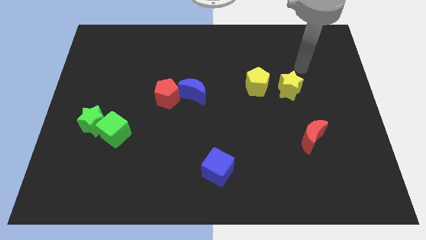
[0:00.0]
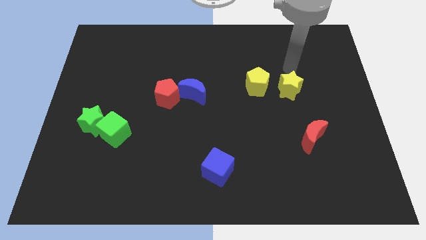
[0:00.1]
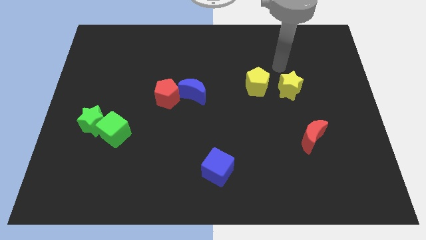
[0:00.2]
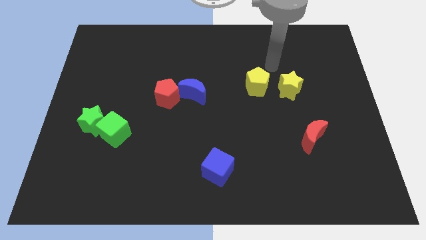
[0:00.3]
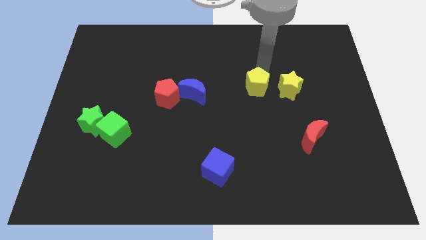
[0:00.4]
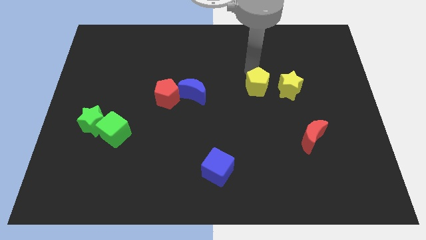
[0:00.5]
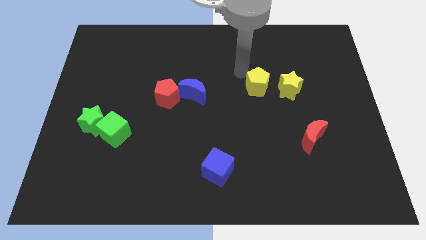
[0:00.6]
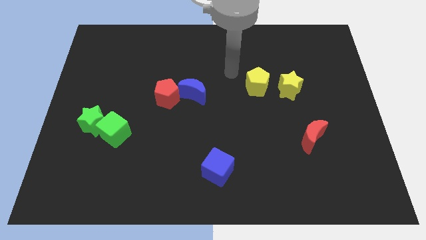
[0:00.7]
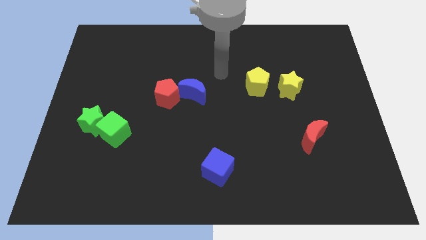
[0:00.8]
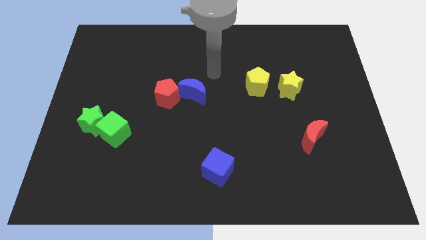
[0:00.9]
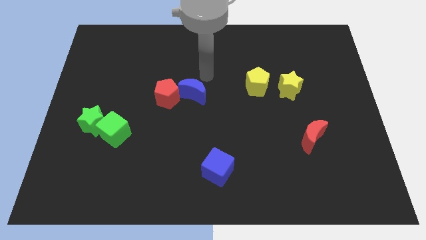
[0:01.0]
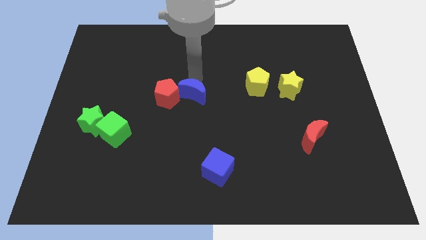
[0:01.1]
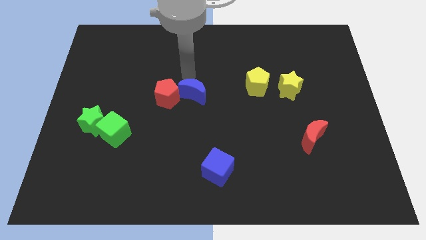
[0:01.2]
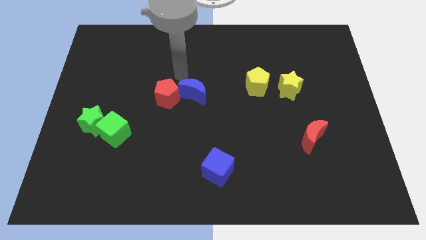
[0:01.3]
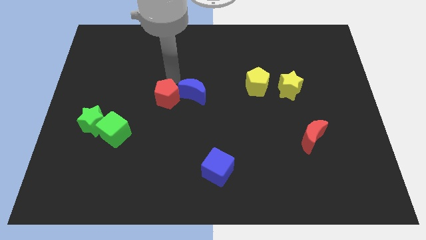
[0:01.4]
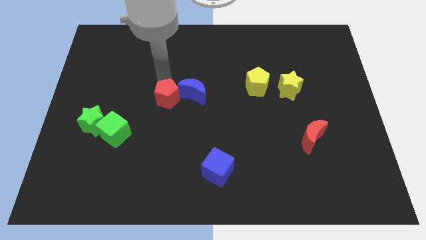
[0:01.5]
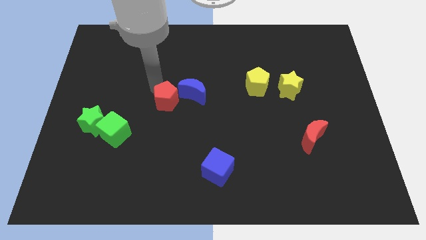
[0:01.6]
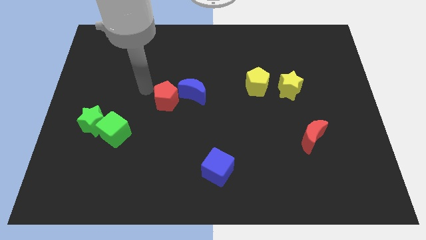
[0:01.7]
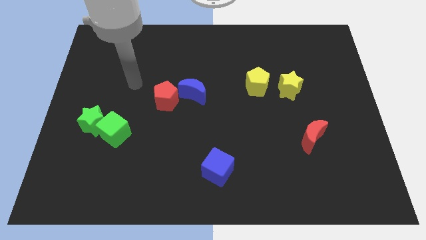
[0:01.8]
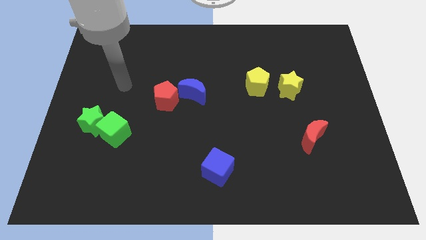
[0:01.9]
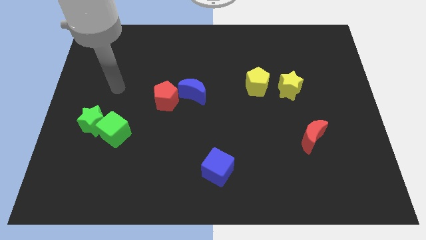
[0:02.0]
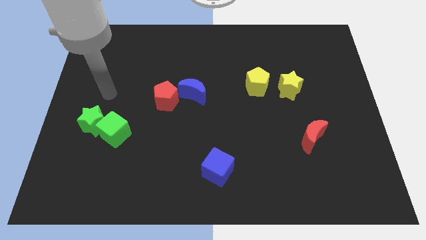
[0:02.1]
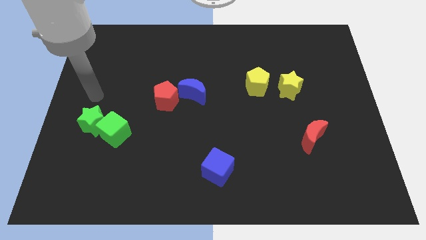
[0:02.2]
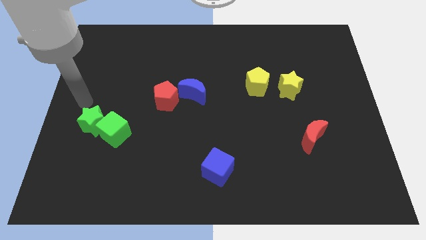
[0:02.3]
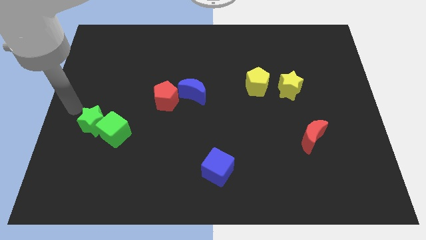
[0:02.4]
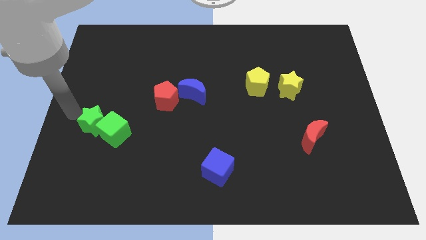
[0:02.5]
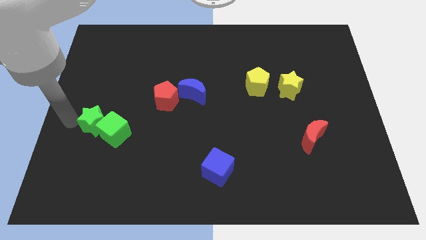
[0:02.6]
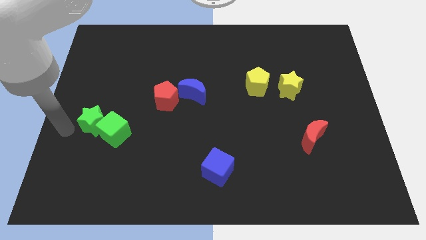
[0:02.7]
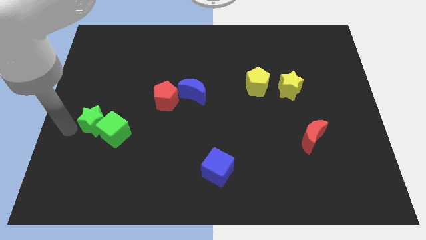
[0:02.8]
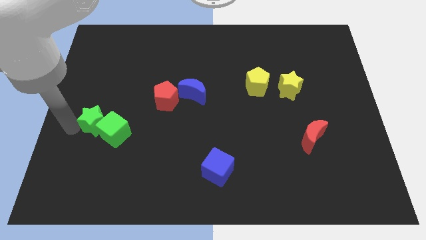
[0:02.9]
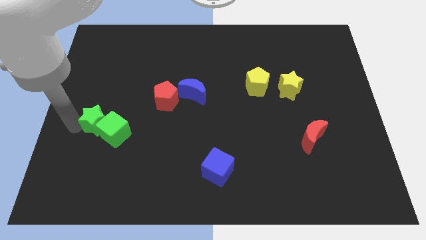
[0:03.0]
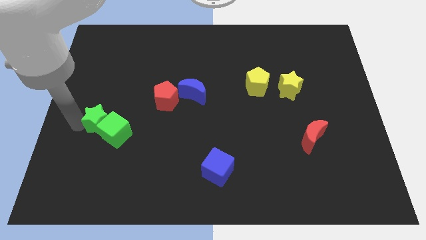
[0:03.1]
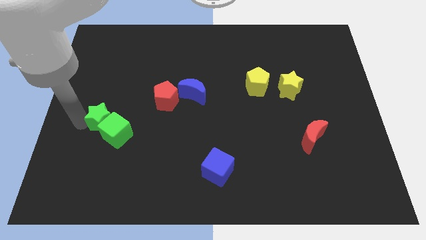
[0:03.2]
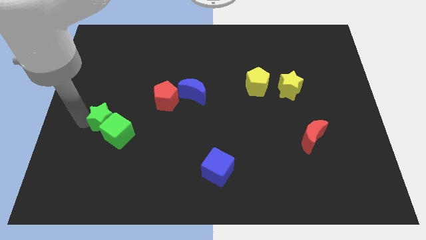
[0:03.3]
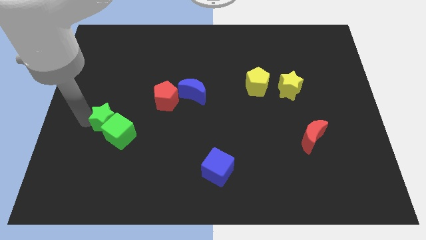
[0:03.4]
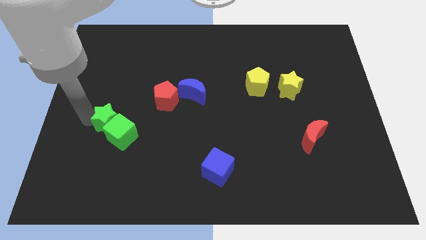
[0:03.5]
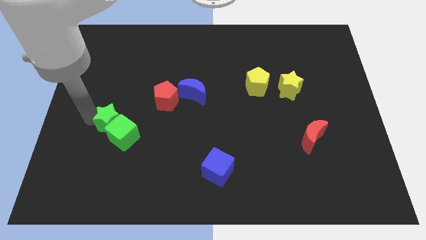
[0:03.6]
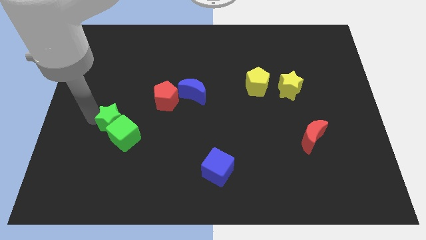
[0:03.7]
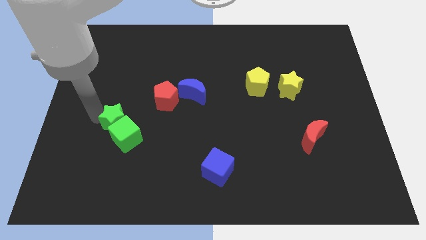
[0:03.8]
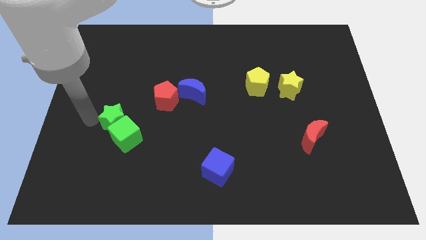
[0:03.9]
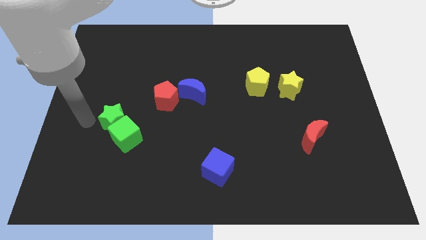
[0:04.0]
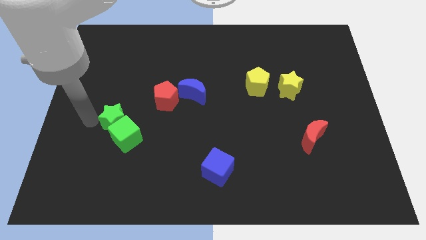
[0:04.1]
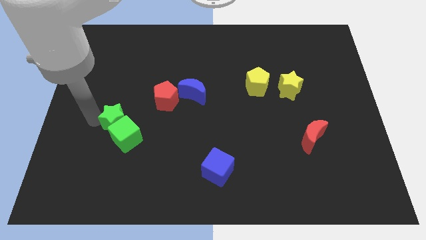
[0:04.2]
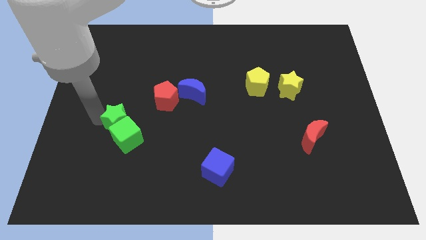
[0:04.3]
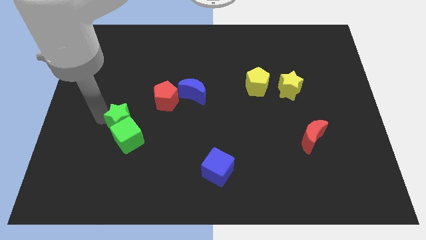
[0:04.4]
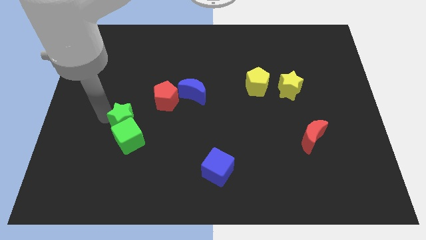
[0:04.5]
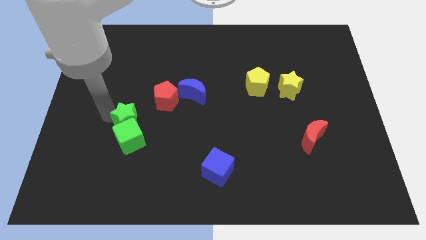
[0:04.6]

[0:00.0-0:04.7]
slightly push the green star right

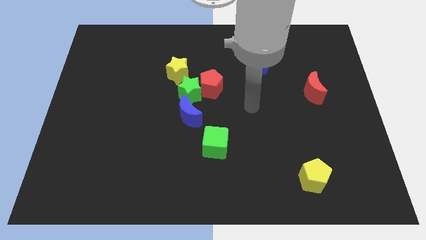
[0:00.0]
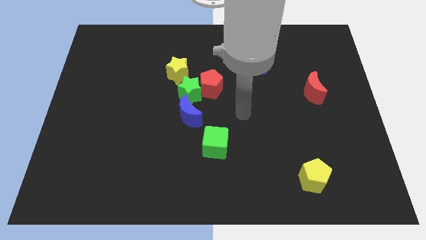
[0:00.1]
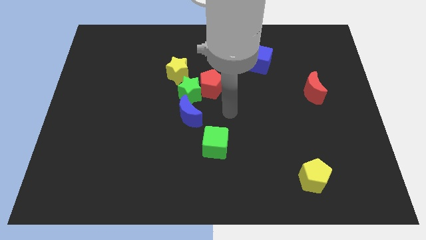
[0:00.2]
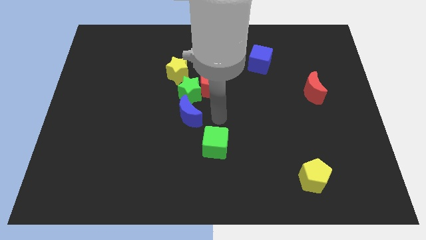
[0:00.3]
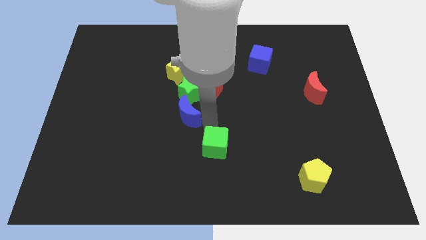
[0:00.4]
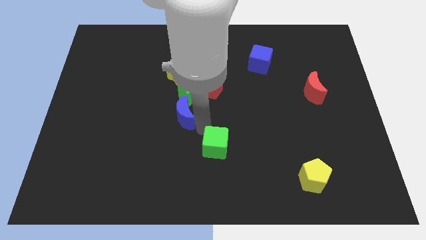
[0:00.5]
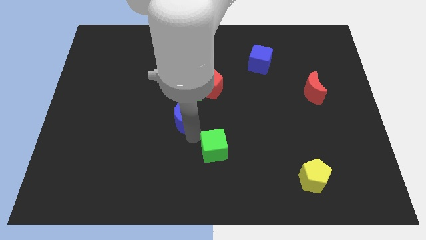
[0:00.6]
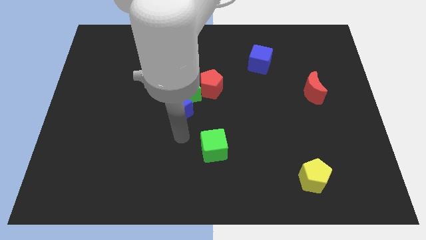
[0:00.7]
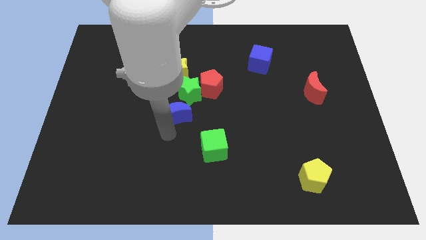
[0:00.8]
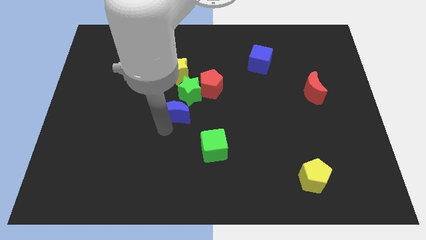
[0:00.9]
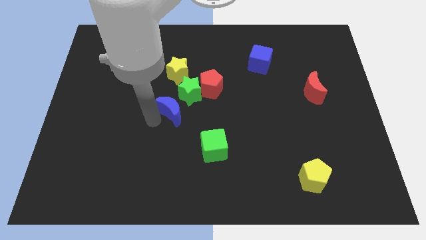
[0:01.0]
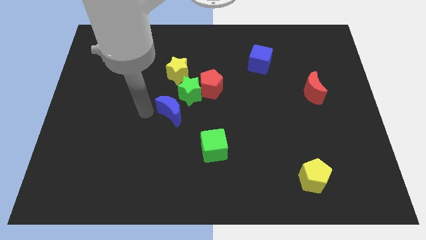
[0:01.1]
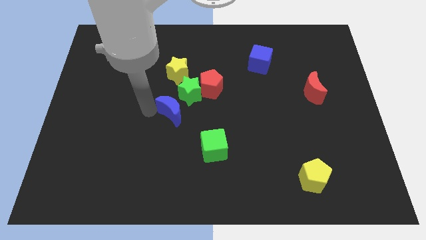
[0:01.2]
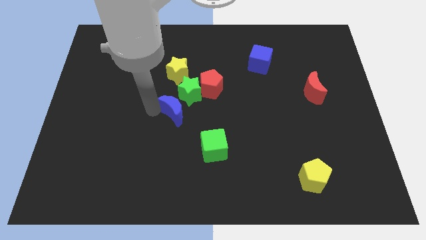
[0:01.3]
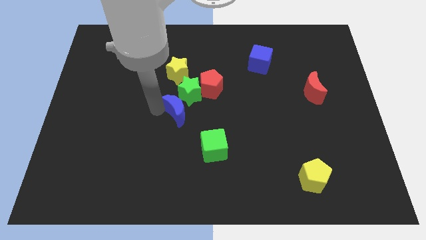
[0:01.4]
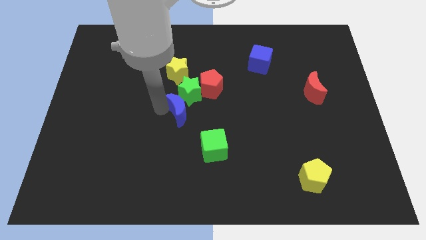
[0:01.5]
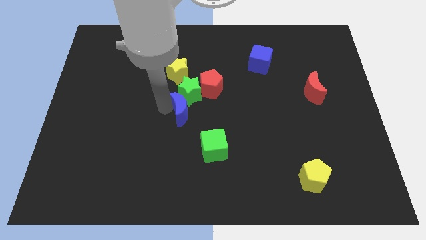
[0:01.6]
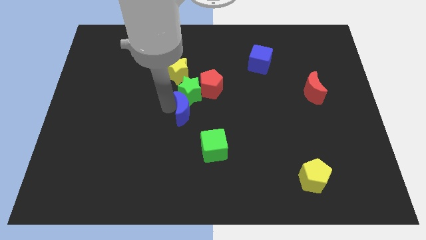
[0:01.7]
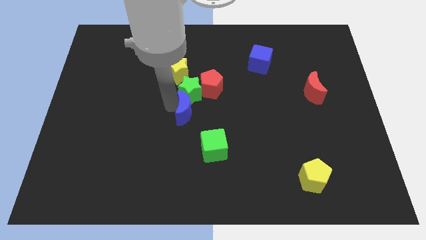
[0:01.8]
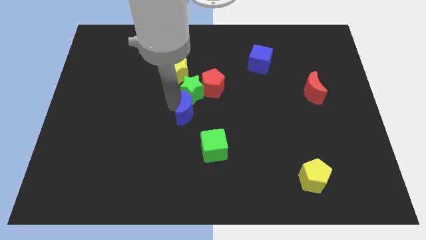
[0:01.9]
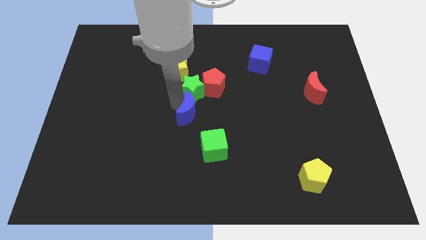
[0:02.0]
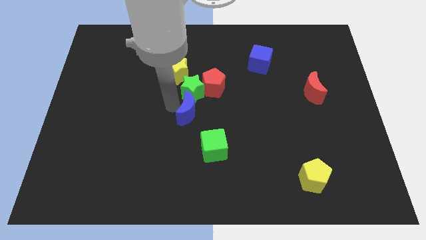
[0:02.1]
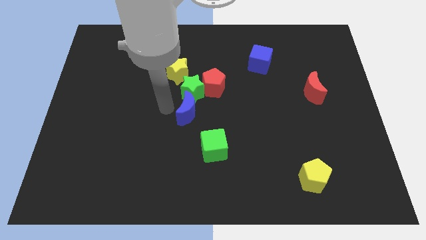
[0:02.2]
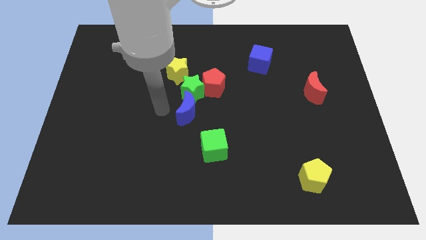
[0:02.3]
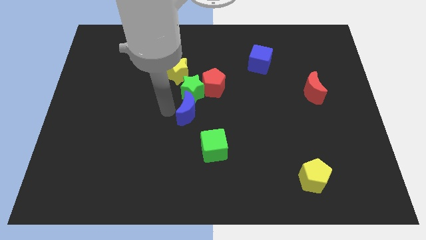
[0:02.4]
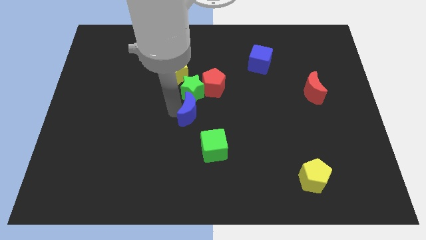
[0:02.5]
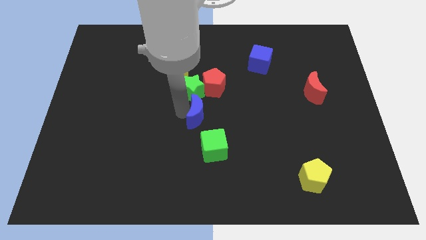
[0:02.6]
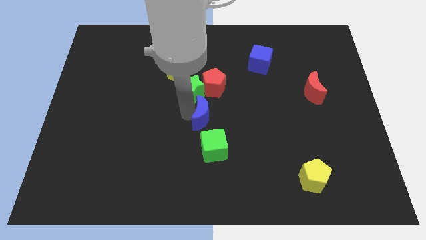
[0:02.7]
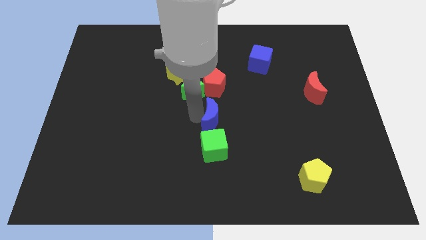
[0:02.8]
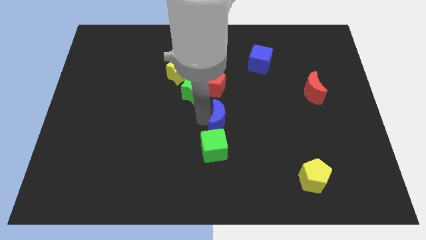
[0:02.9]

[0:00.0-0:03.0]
slightly slide the blue moon to the right

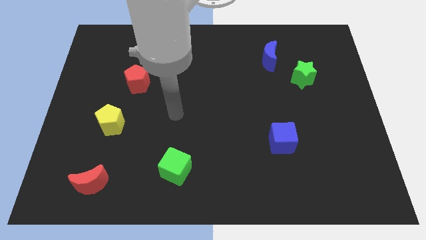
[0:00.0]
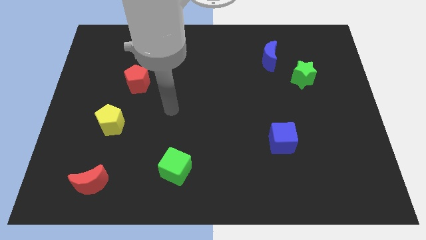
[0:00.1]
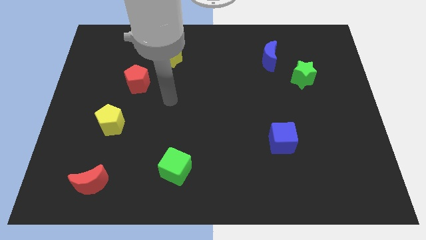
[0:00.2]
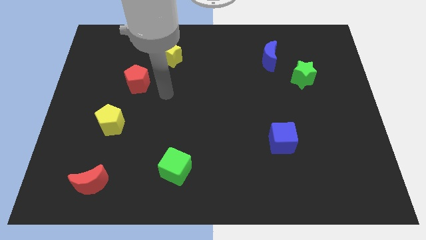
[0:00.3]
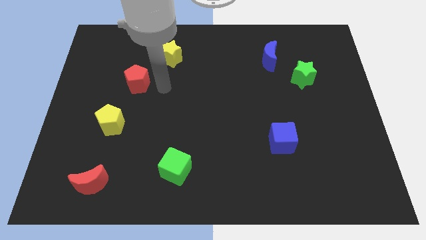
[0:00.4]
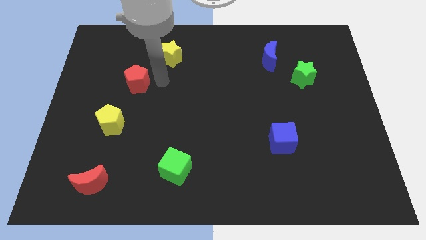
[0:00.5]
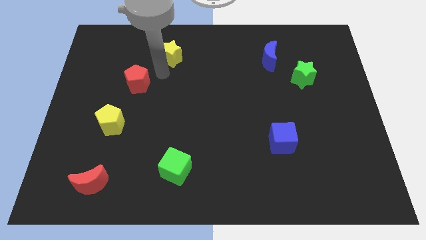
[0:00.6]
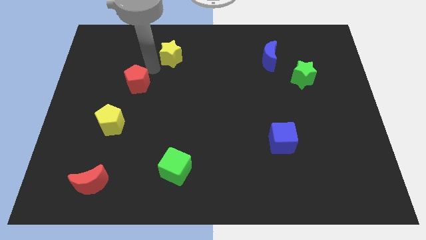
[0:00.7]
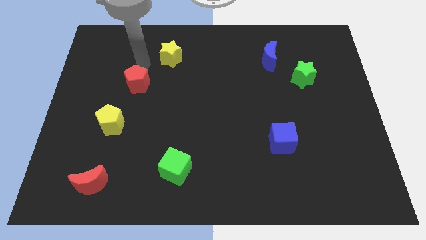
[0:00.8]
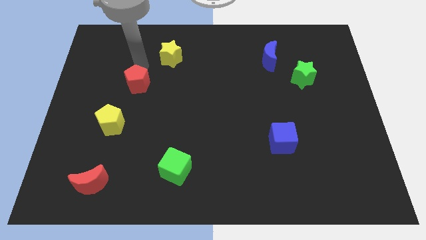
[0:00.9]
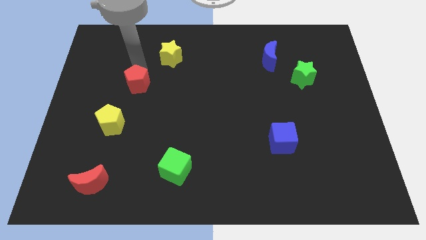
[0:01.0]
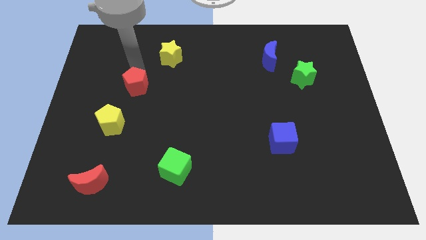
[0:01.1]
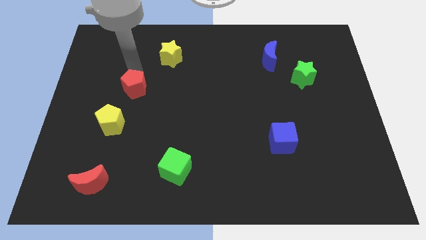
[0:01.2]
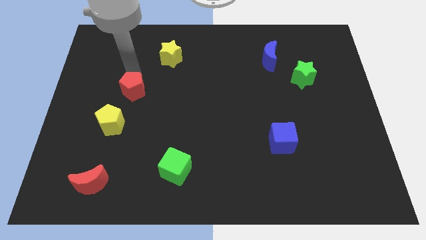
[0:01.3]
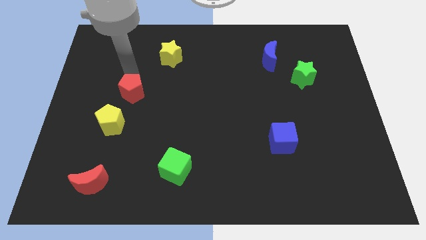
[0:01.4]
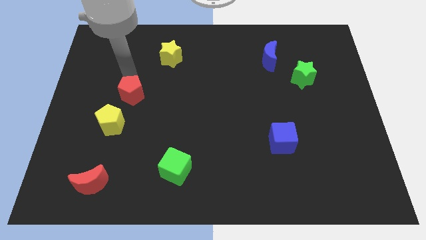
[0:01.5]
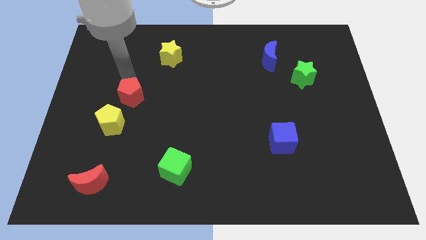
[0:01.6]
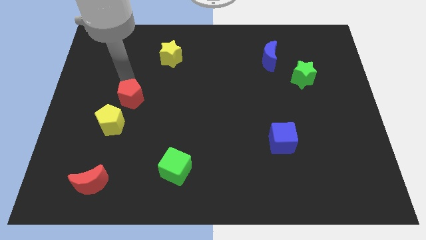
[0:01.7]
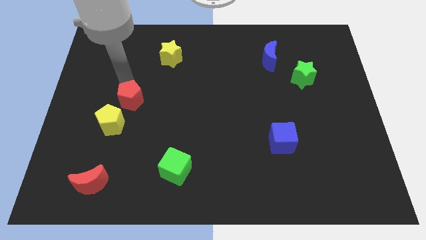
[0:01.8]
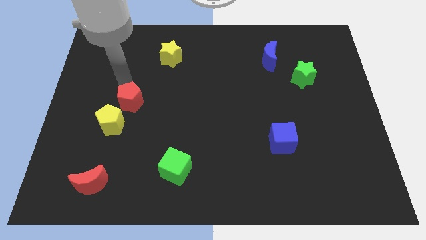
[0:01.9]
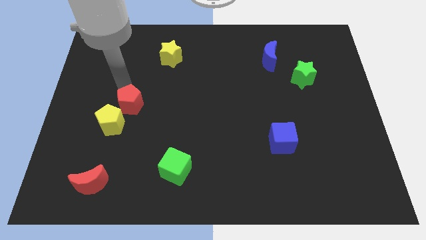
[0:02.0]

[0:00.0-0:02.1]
slide the red pentagon slightly downwards
